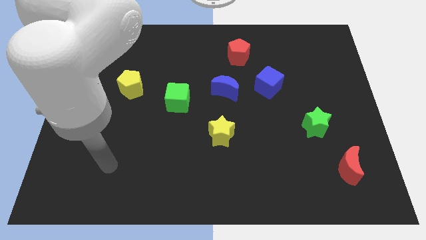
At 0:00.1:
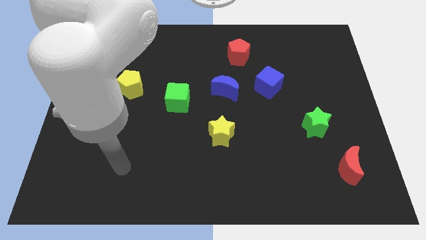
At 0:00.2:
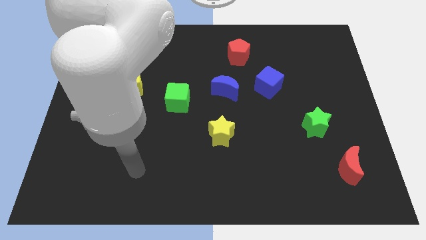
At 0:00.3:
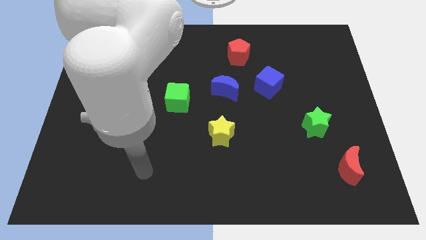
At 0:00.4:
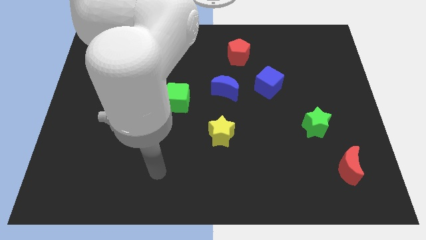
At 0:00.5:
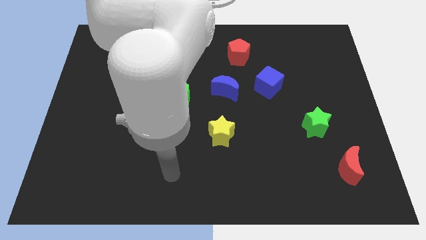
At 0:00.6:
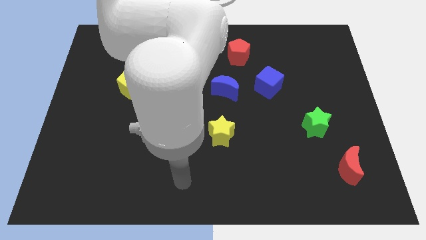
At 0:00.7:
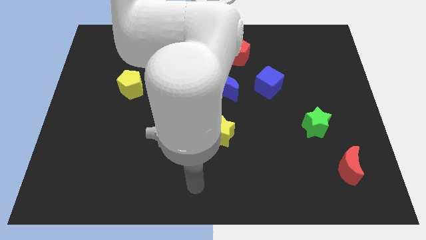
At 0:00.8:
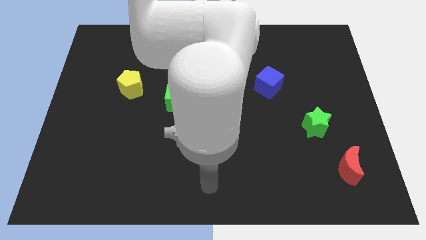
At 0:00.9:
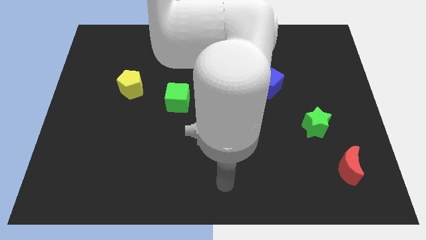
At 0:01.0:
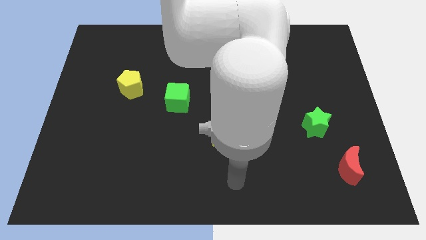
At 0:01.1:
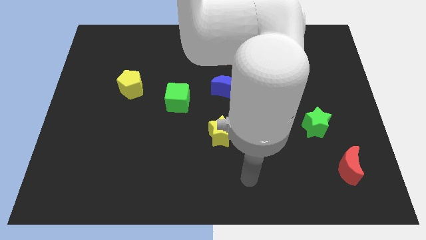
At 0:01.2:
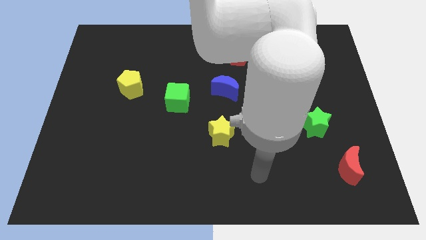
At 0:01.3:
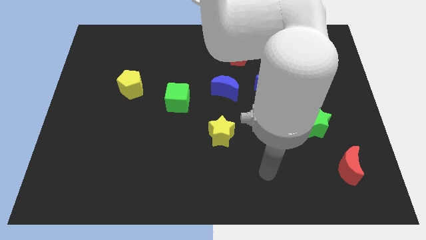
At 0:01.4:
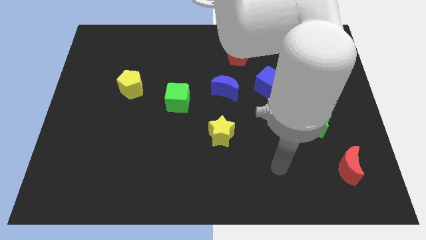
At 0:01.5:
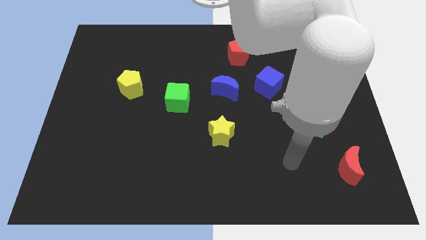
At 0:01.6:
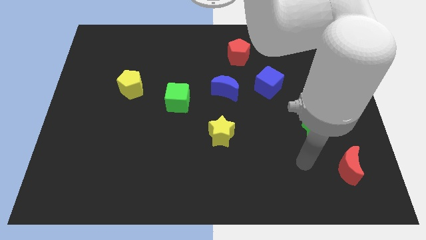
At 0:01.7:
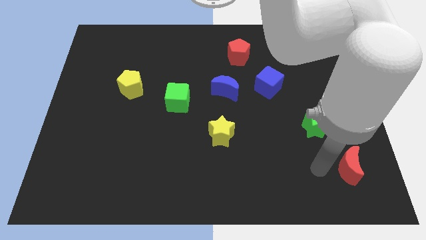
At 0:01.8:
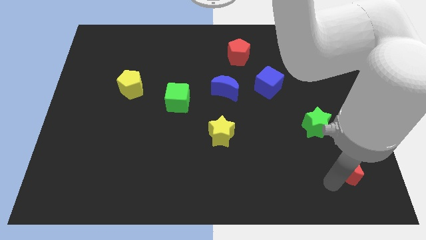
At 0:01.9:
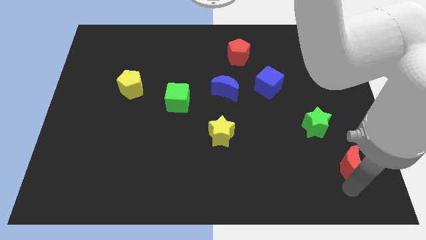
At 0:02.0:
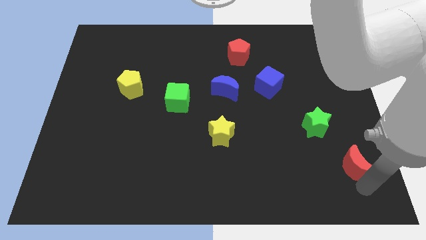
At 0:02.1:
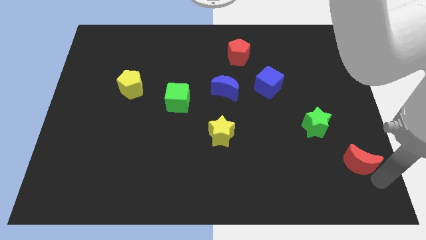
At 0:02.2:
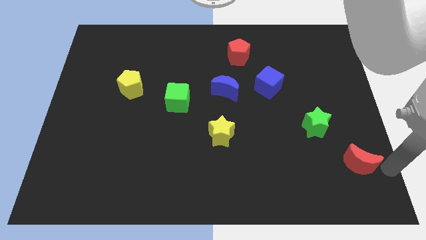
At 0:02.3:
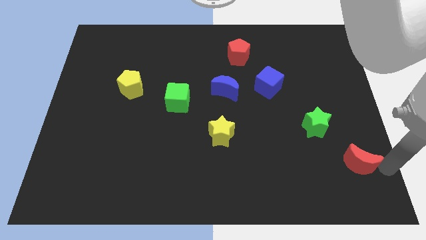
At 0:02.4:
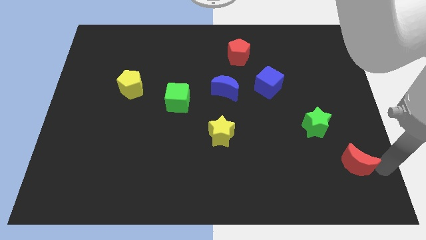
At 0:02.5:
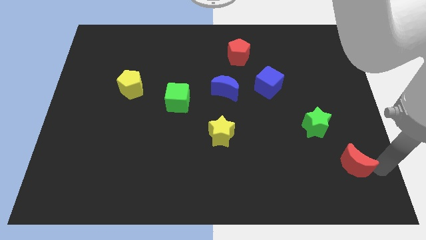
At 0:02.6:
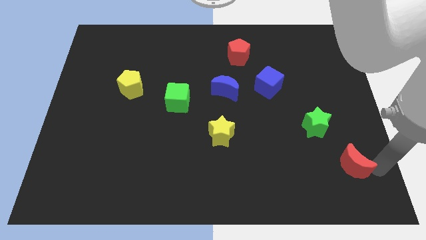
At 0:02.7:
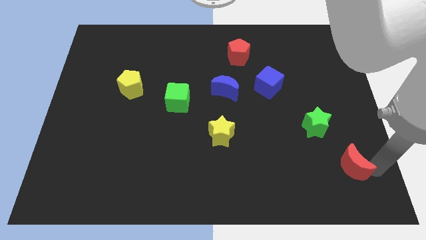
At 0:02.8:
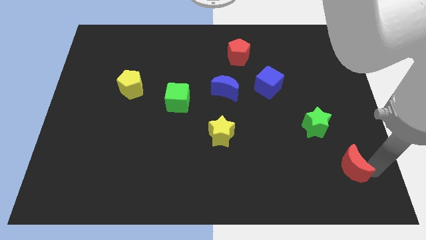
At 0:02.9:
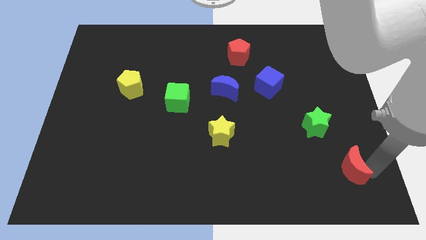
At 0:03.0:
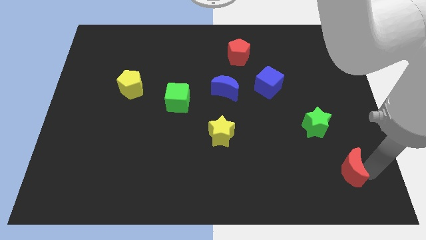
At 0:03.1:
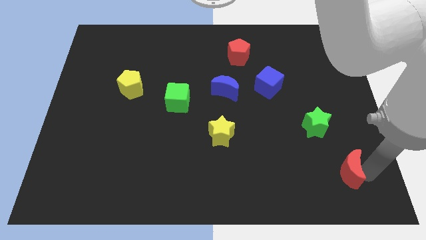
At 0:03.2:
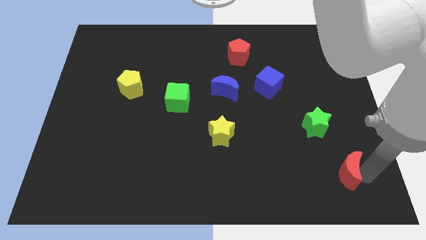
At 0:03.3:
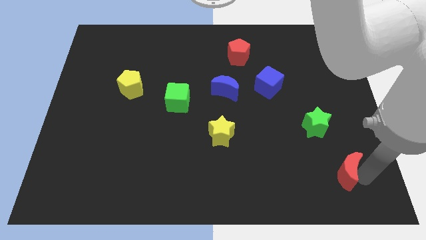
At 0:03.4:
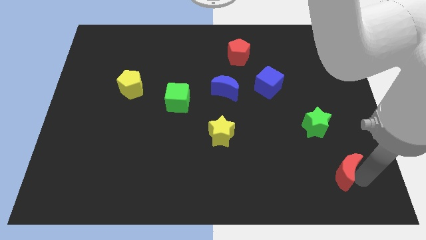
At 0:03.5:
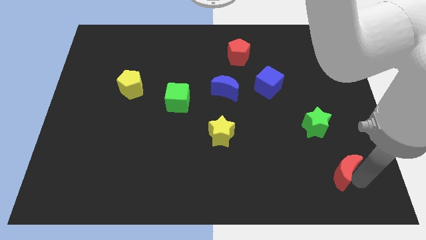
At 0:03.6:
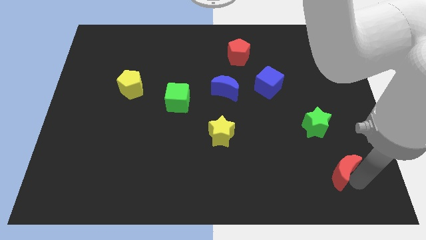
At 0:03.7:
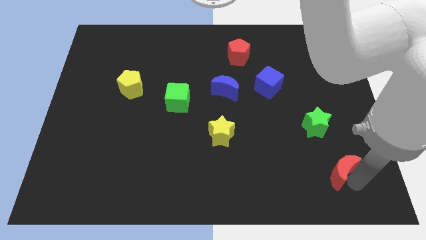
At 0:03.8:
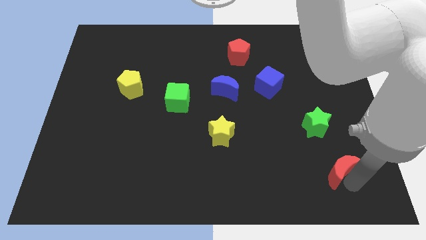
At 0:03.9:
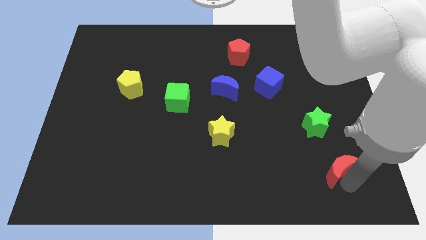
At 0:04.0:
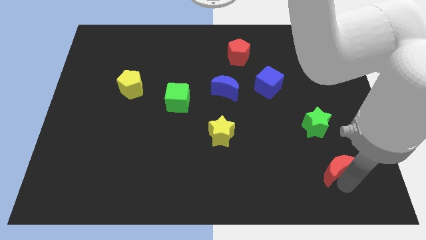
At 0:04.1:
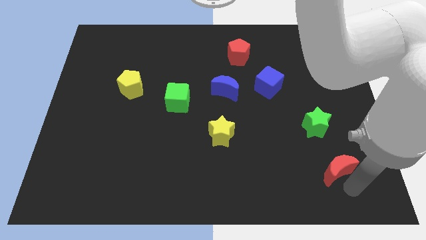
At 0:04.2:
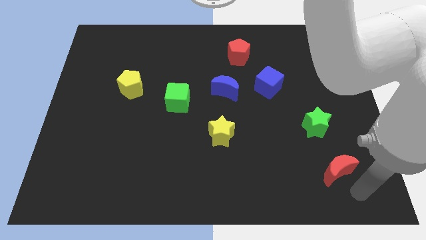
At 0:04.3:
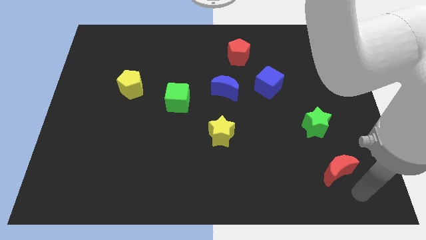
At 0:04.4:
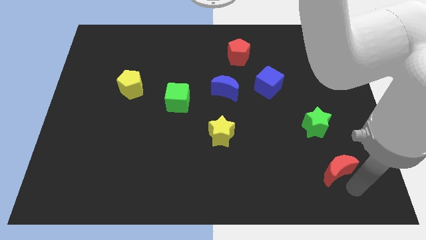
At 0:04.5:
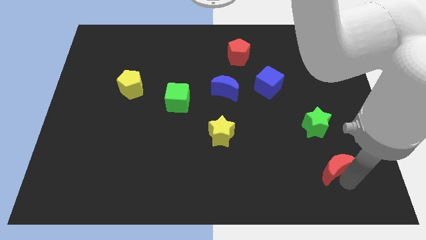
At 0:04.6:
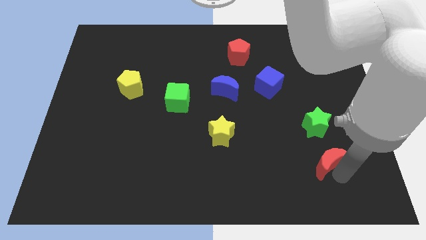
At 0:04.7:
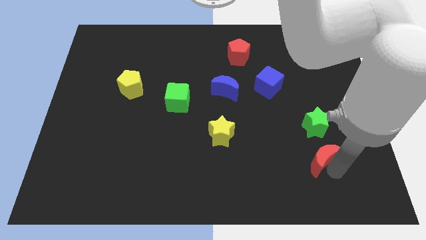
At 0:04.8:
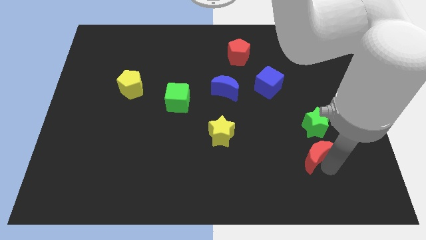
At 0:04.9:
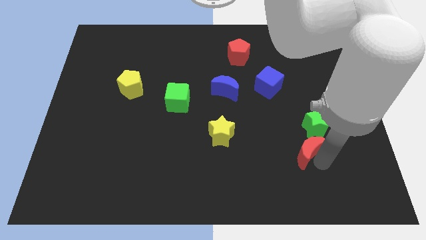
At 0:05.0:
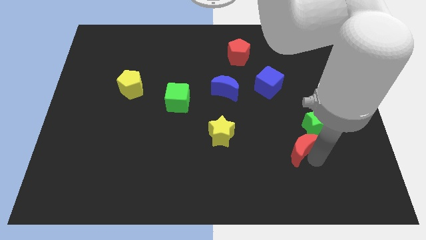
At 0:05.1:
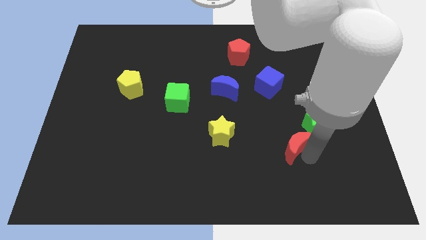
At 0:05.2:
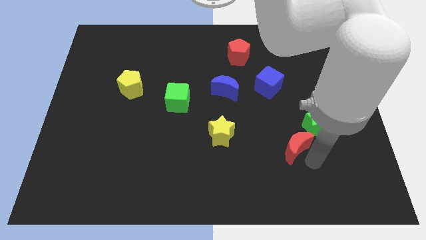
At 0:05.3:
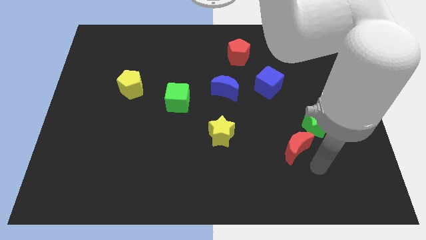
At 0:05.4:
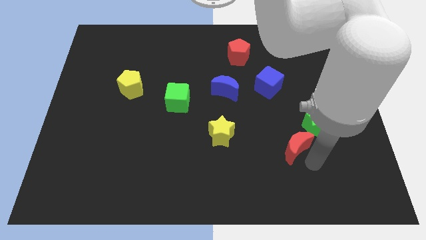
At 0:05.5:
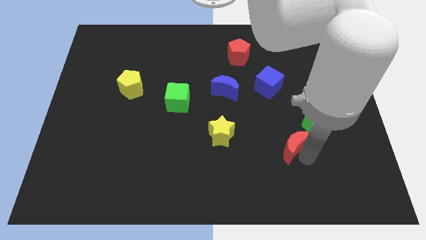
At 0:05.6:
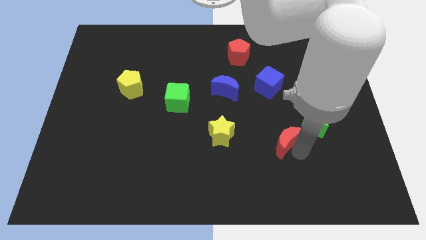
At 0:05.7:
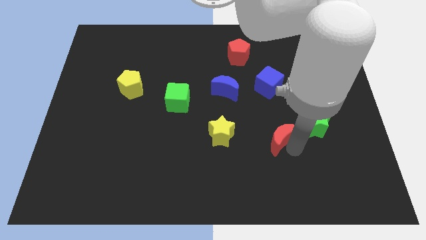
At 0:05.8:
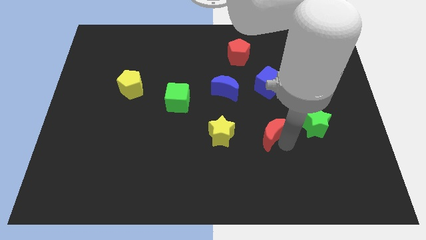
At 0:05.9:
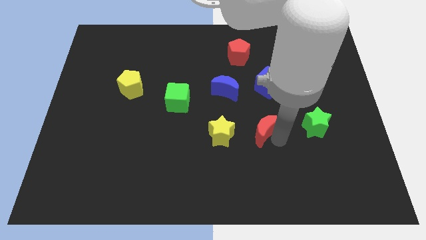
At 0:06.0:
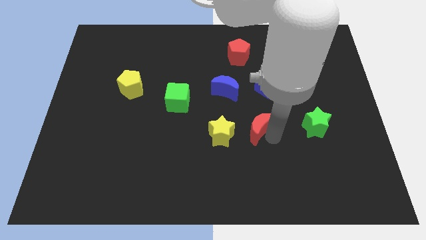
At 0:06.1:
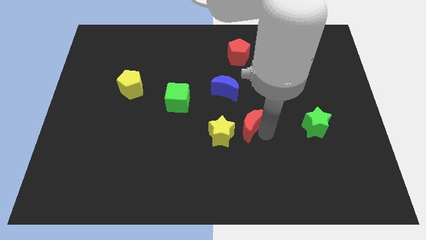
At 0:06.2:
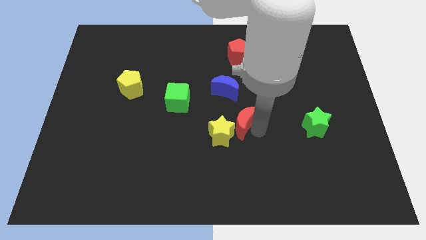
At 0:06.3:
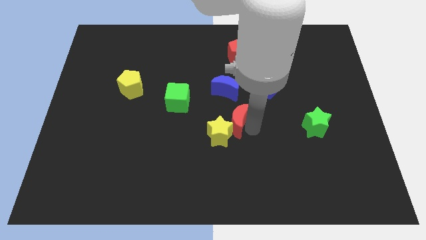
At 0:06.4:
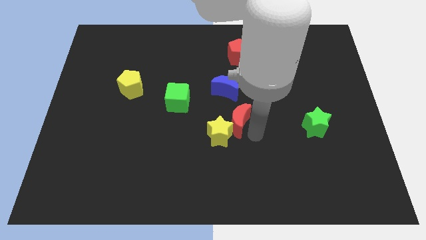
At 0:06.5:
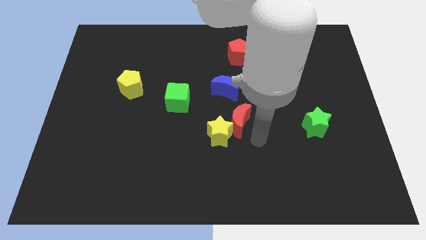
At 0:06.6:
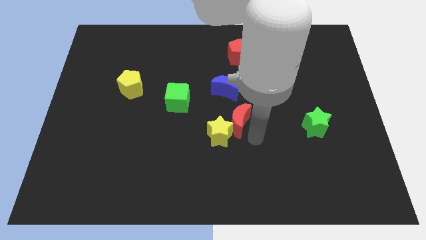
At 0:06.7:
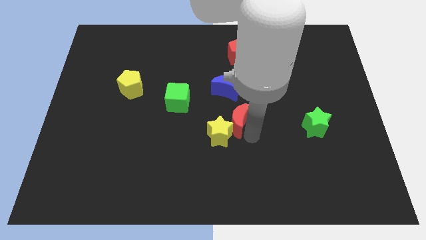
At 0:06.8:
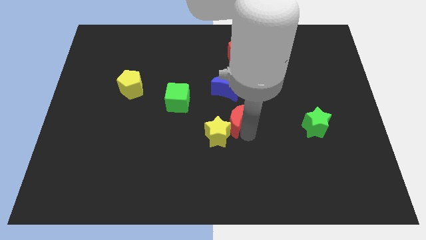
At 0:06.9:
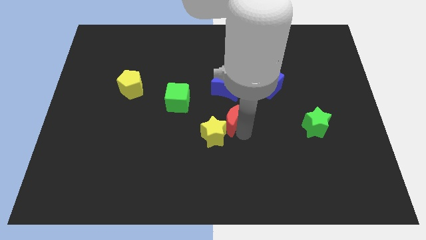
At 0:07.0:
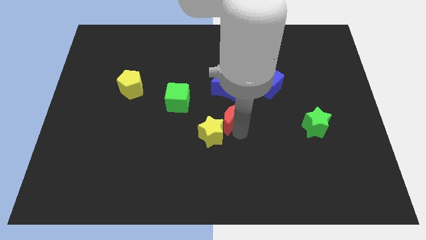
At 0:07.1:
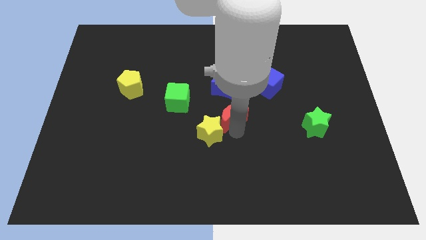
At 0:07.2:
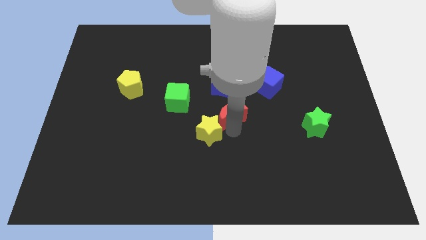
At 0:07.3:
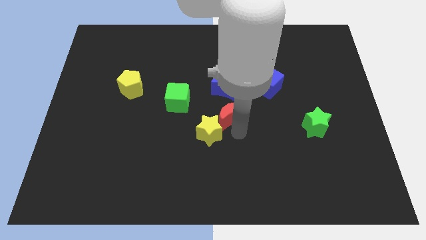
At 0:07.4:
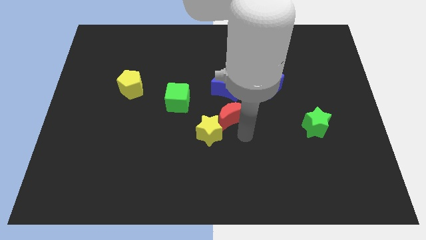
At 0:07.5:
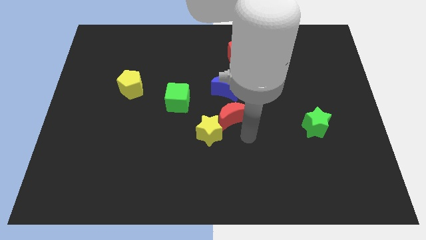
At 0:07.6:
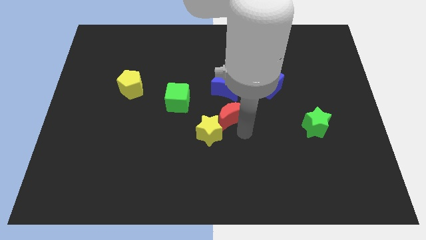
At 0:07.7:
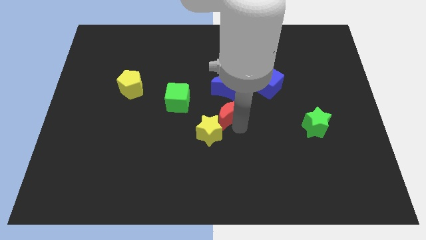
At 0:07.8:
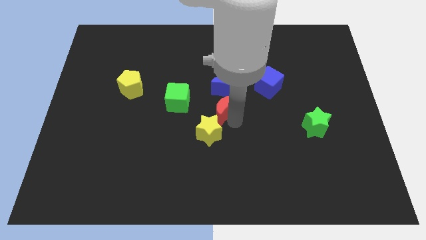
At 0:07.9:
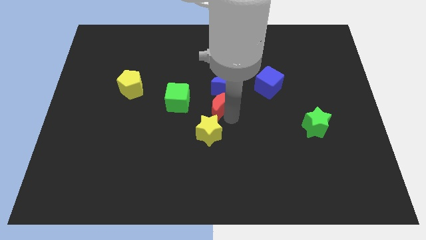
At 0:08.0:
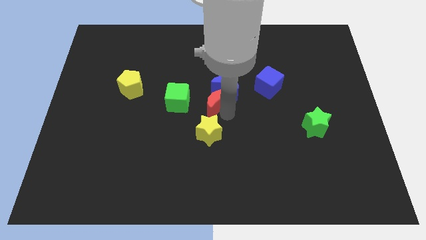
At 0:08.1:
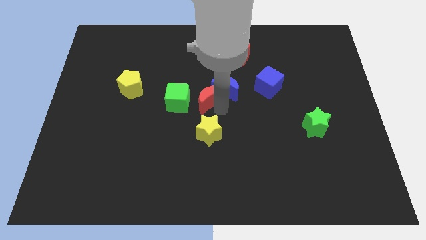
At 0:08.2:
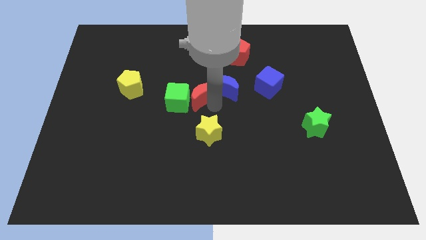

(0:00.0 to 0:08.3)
slide the red moon to the top right of the green cube
